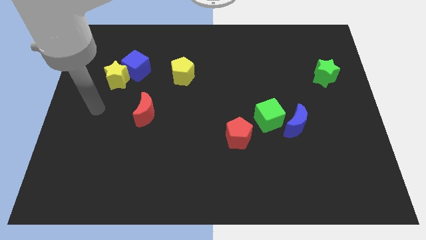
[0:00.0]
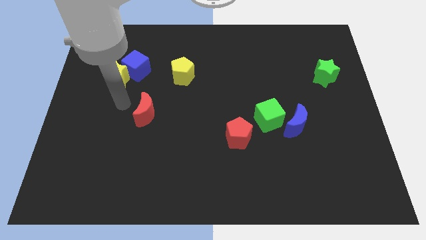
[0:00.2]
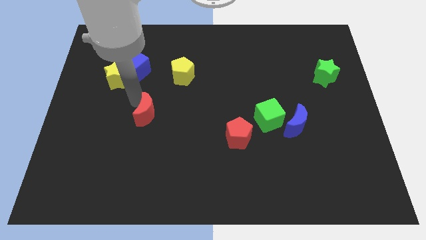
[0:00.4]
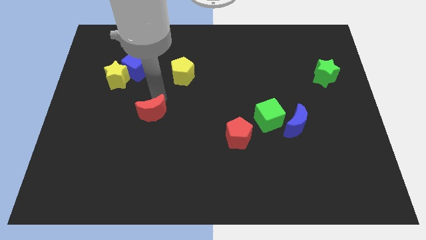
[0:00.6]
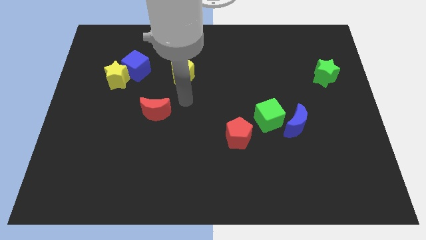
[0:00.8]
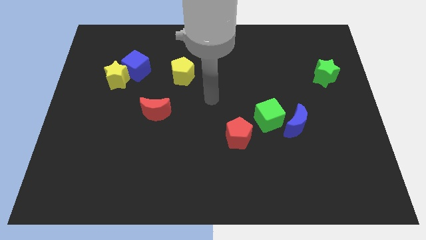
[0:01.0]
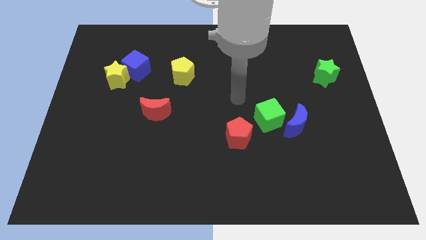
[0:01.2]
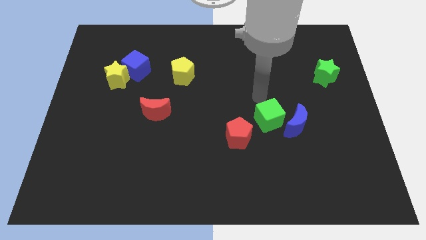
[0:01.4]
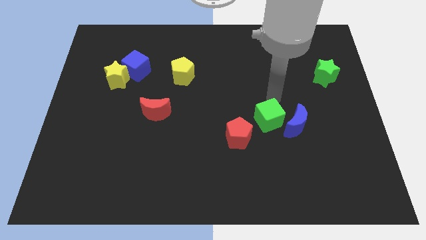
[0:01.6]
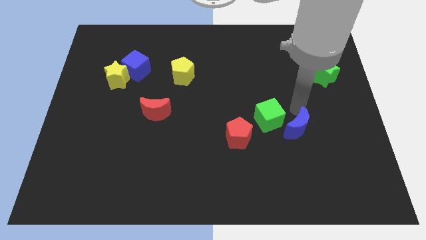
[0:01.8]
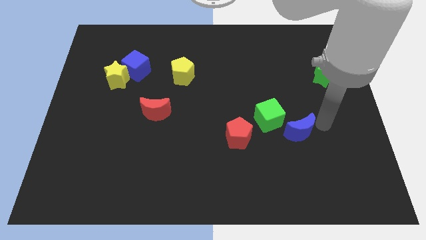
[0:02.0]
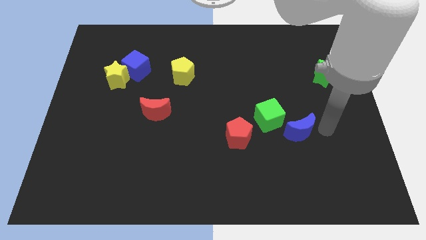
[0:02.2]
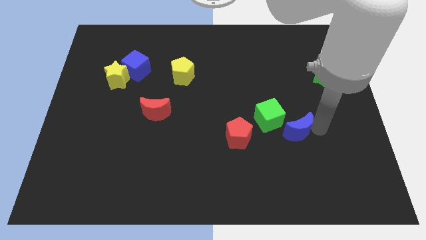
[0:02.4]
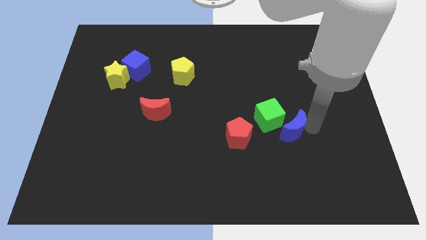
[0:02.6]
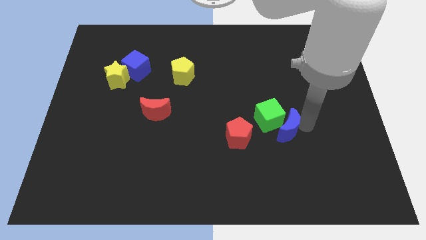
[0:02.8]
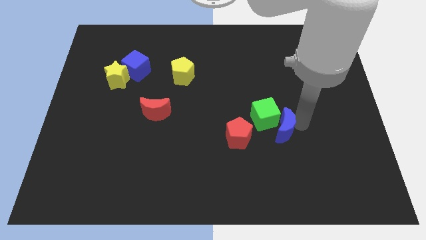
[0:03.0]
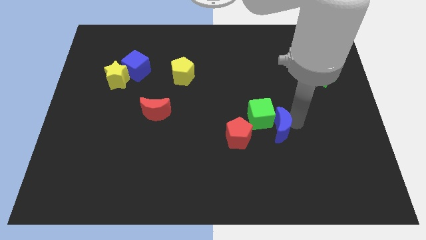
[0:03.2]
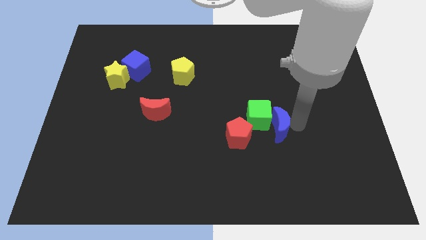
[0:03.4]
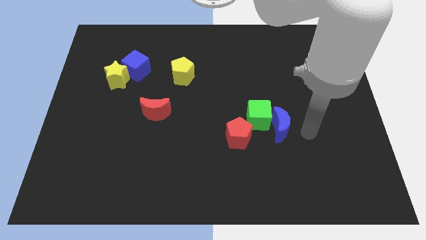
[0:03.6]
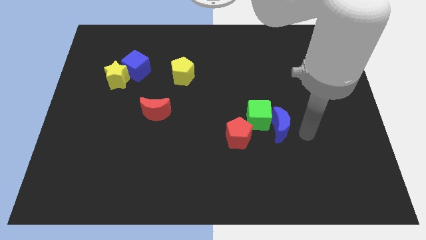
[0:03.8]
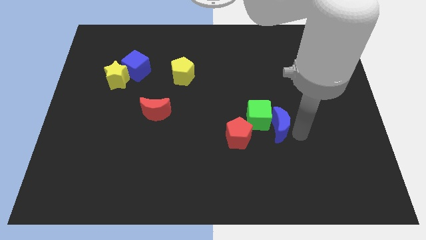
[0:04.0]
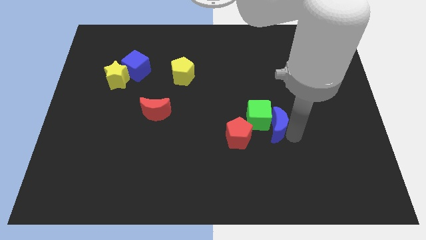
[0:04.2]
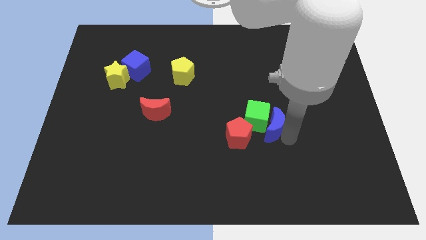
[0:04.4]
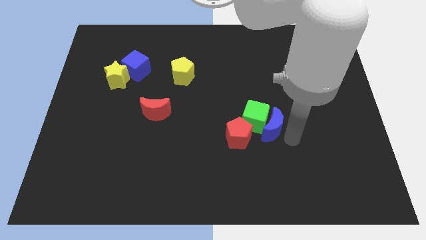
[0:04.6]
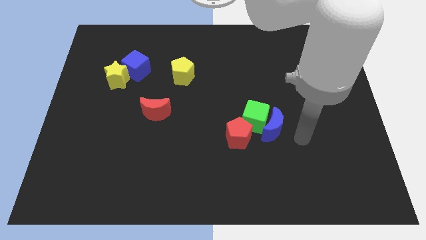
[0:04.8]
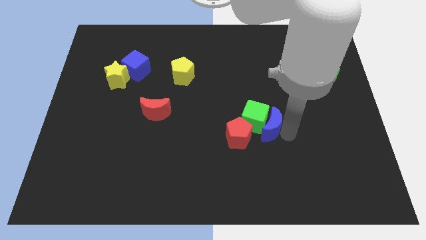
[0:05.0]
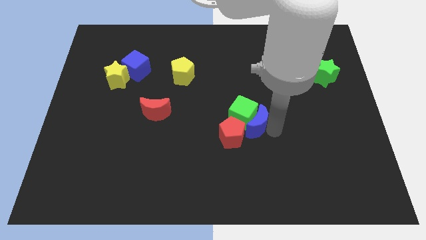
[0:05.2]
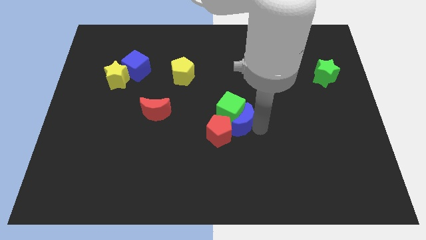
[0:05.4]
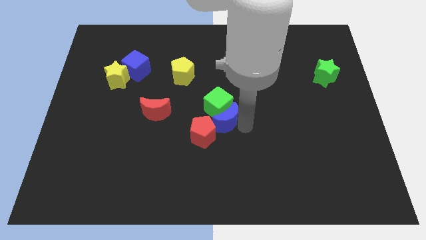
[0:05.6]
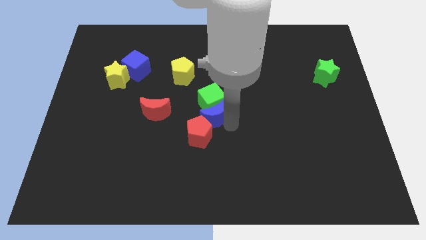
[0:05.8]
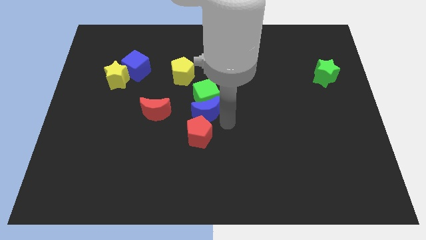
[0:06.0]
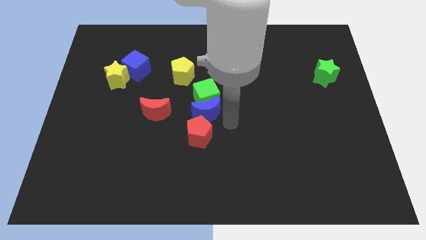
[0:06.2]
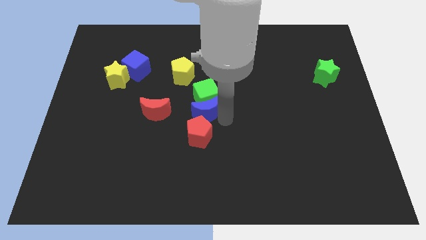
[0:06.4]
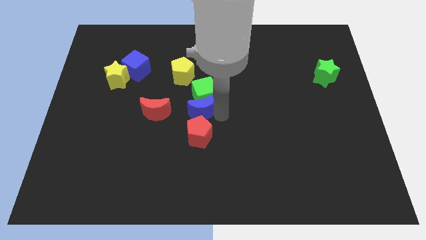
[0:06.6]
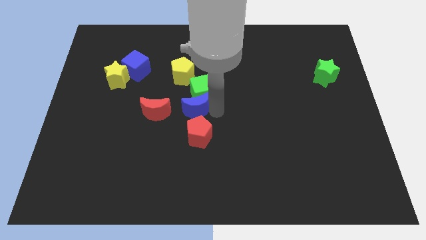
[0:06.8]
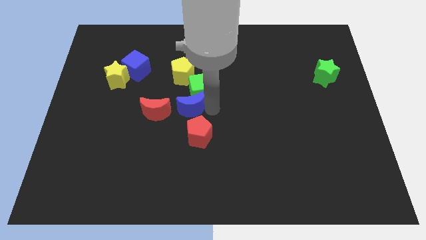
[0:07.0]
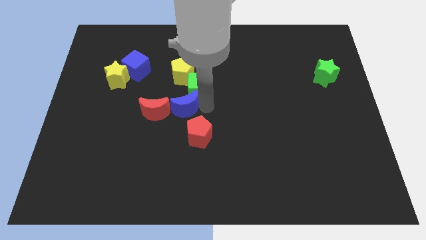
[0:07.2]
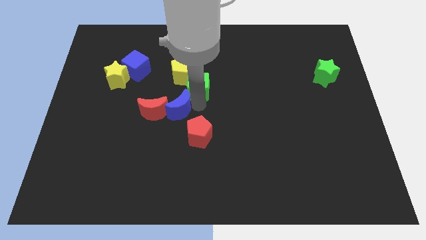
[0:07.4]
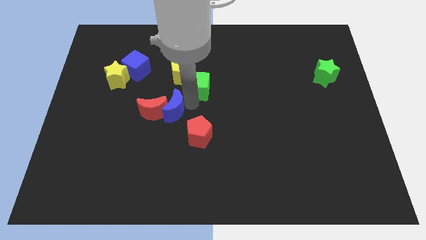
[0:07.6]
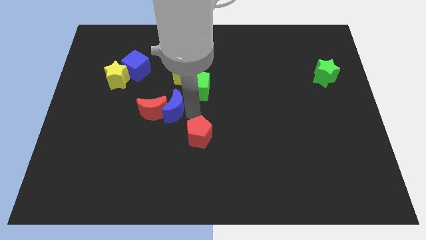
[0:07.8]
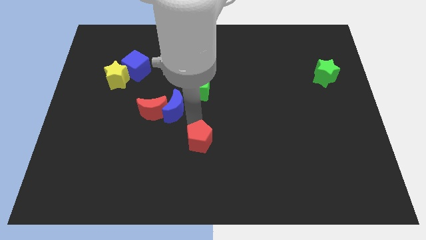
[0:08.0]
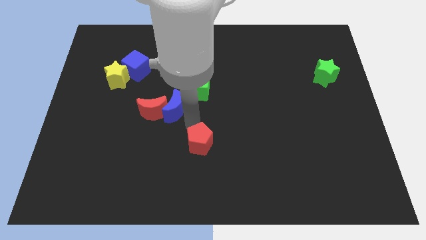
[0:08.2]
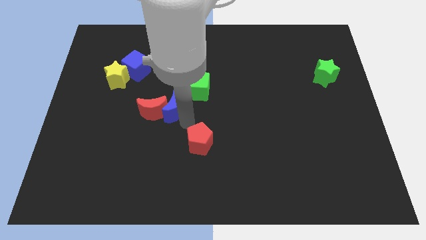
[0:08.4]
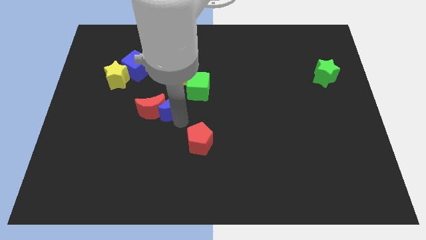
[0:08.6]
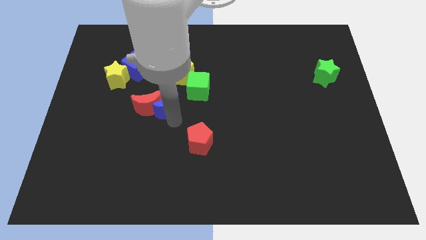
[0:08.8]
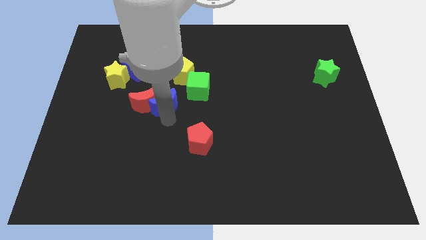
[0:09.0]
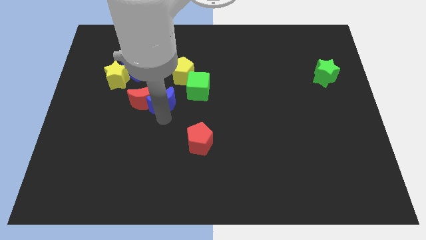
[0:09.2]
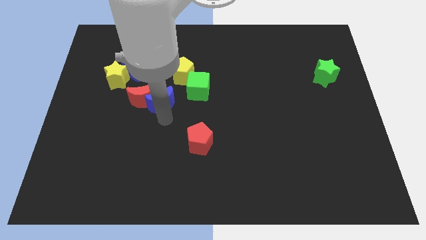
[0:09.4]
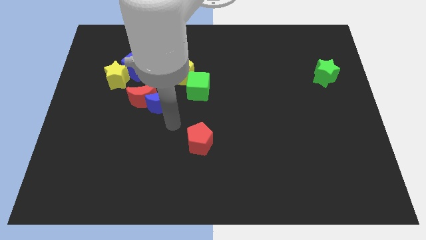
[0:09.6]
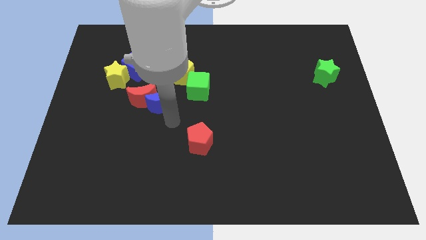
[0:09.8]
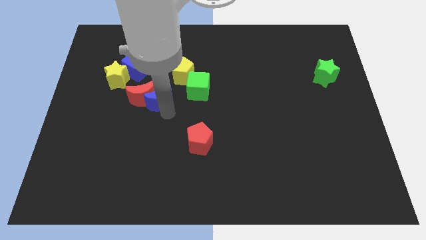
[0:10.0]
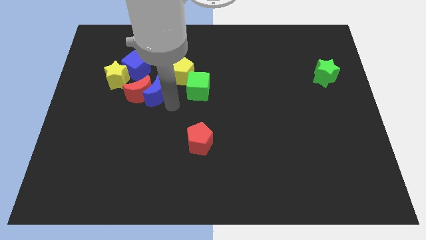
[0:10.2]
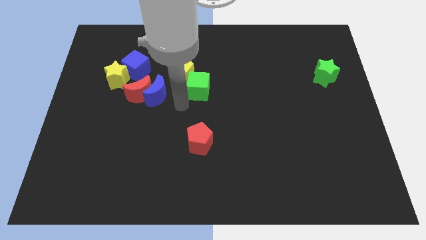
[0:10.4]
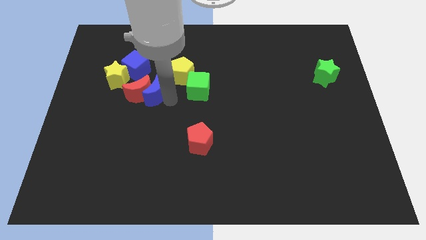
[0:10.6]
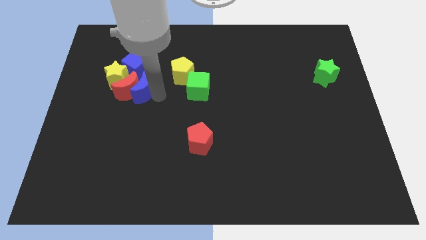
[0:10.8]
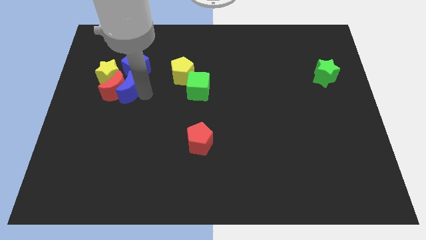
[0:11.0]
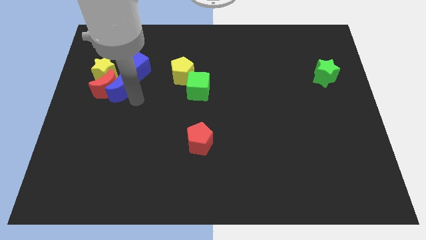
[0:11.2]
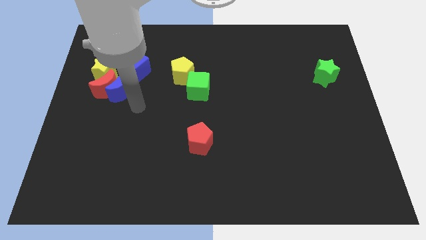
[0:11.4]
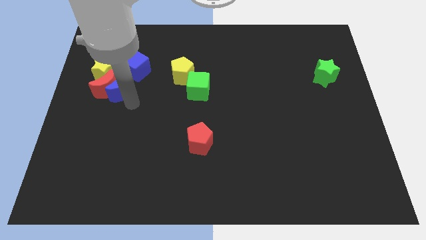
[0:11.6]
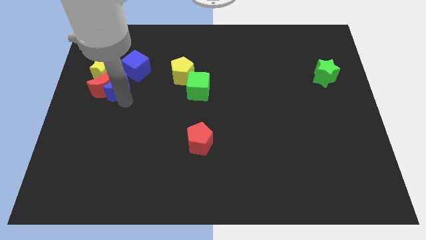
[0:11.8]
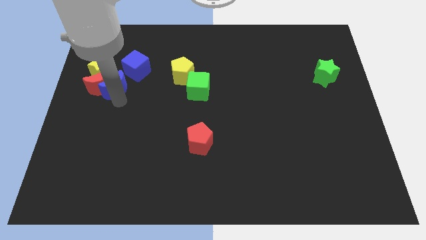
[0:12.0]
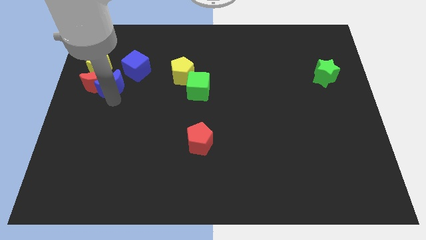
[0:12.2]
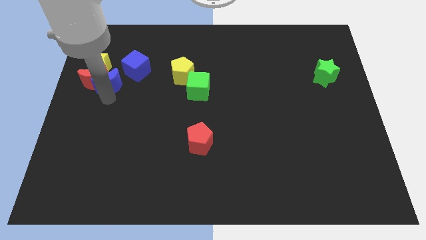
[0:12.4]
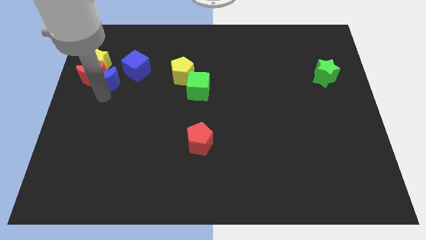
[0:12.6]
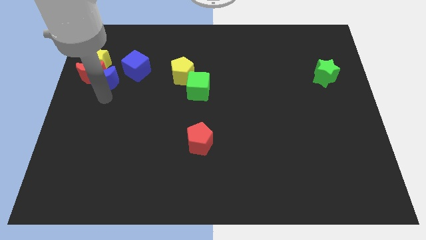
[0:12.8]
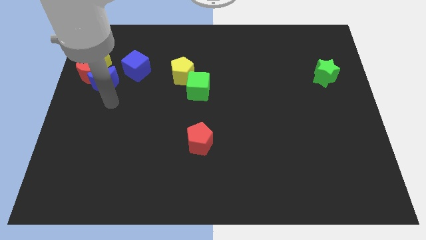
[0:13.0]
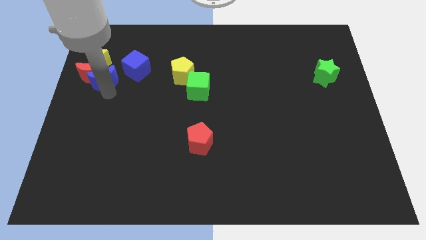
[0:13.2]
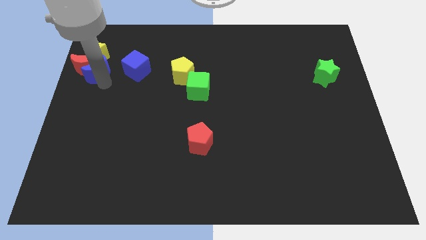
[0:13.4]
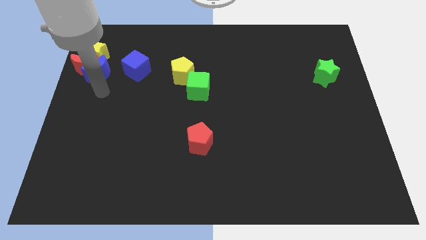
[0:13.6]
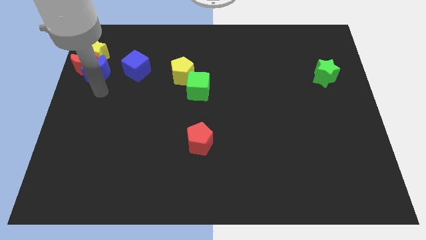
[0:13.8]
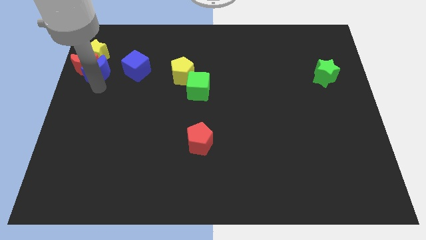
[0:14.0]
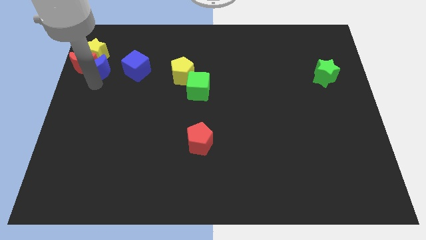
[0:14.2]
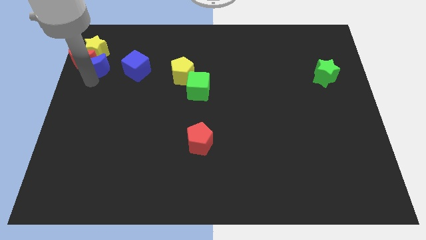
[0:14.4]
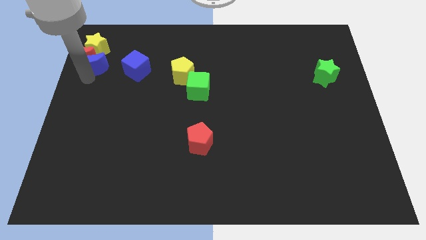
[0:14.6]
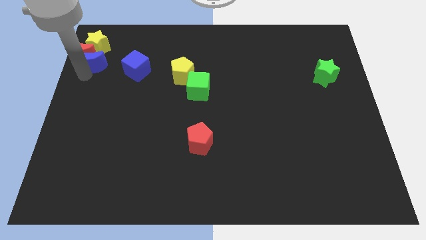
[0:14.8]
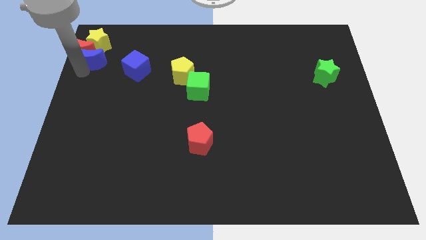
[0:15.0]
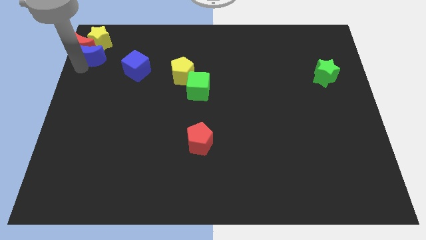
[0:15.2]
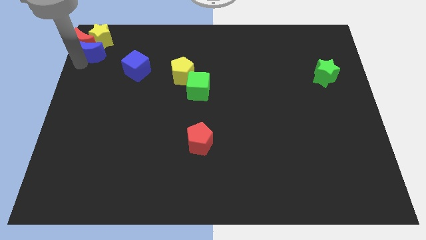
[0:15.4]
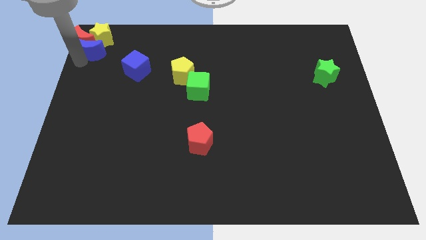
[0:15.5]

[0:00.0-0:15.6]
move the blue moon towards the yellow star
